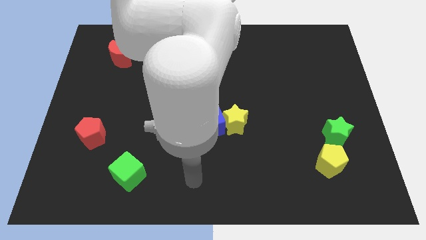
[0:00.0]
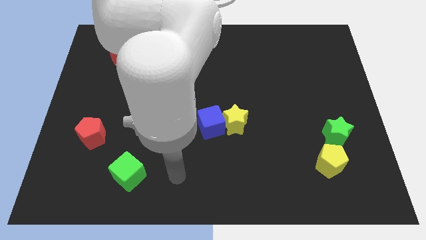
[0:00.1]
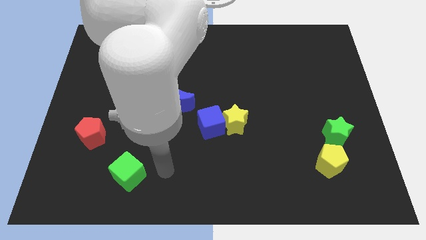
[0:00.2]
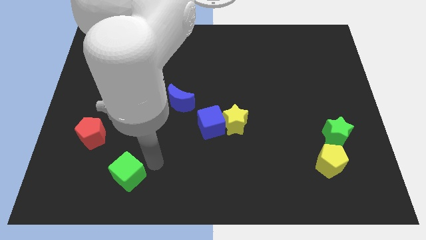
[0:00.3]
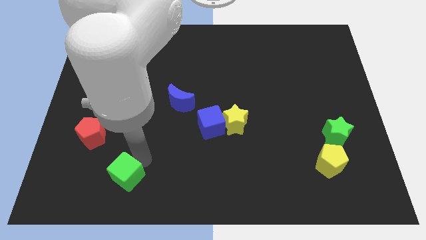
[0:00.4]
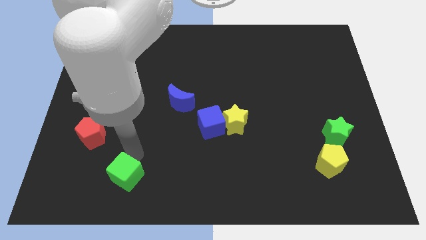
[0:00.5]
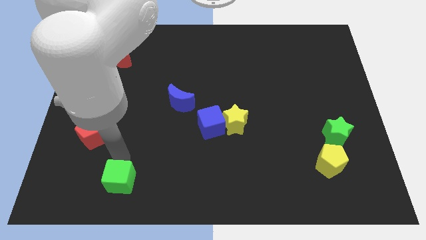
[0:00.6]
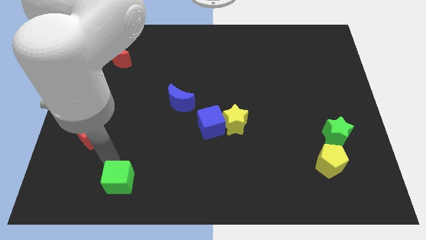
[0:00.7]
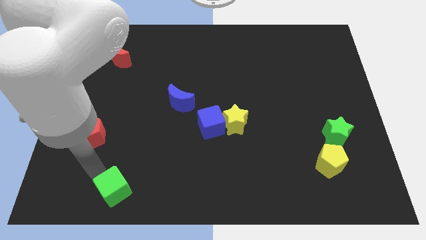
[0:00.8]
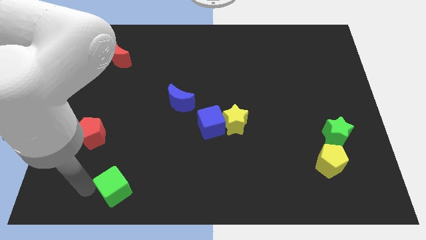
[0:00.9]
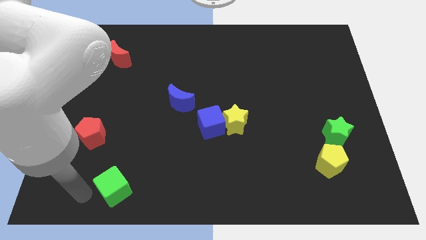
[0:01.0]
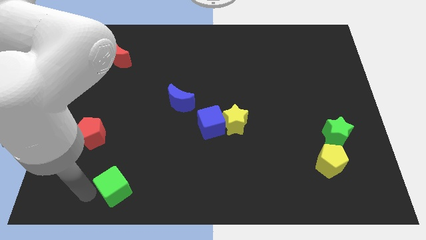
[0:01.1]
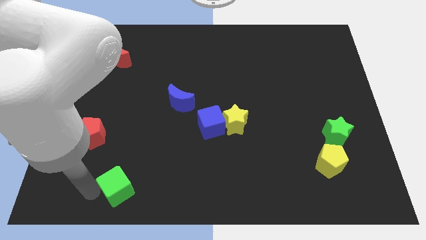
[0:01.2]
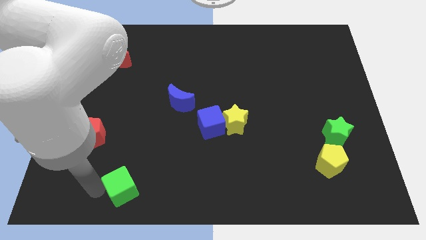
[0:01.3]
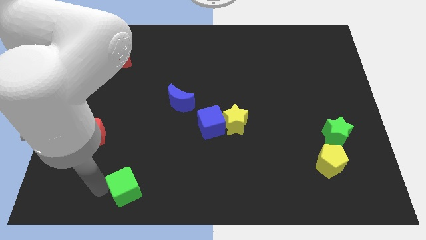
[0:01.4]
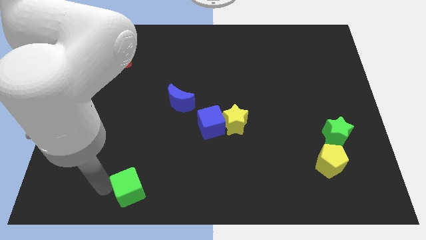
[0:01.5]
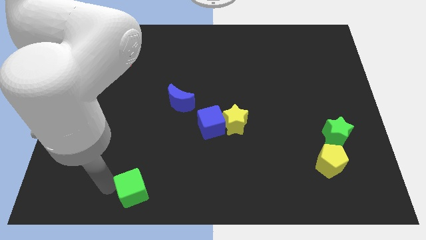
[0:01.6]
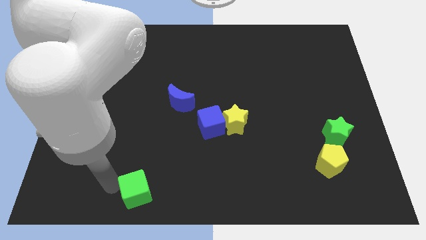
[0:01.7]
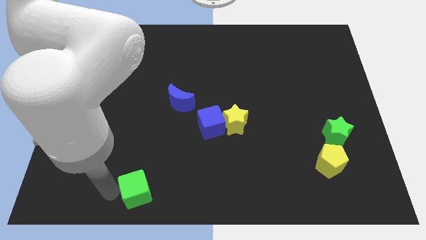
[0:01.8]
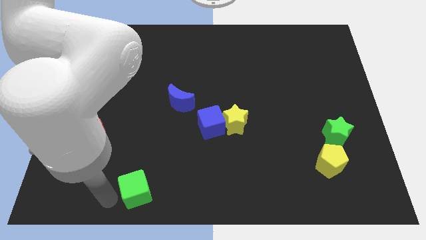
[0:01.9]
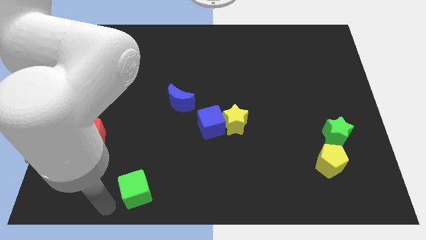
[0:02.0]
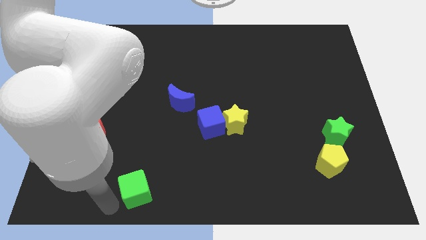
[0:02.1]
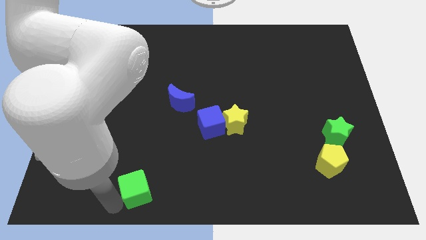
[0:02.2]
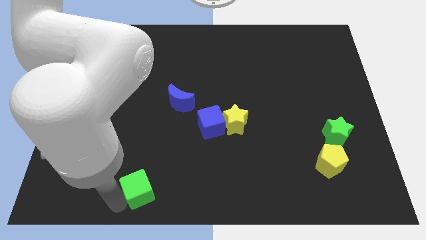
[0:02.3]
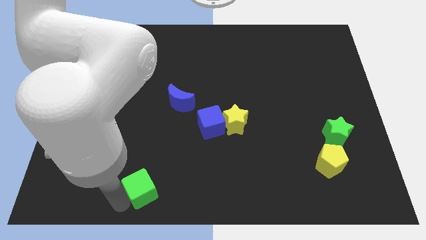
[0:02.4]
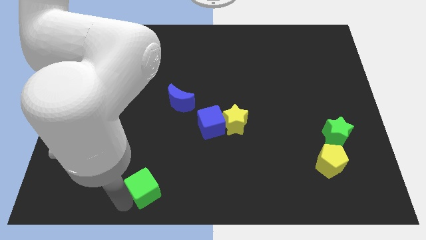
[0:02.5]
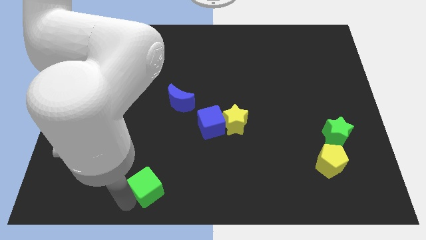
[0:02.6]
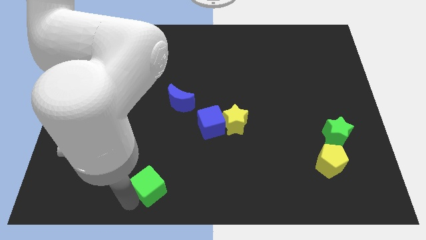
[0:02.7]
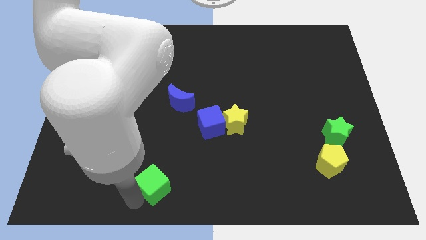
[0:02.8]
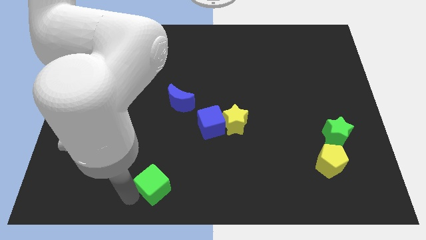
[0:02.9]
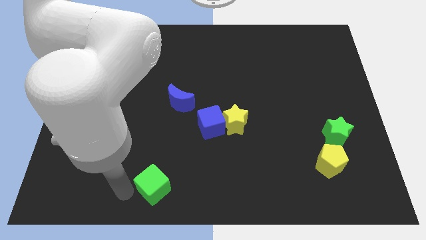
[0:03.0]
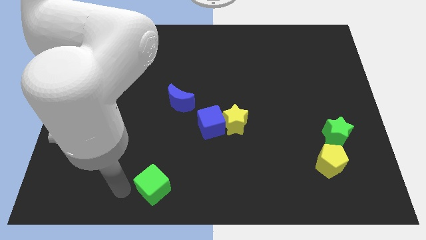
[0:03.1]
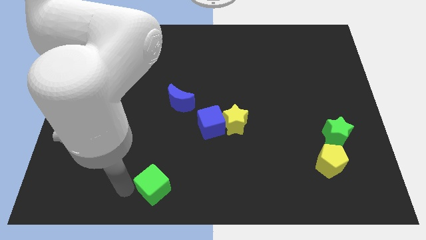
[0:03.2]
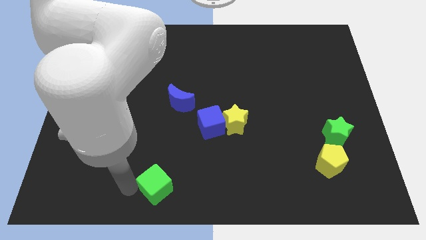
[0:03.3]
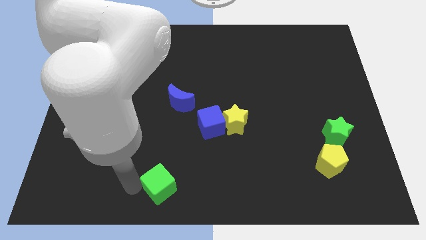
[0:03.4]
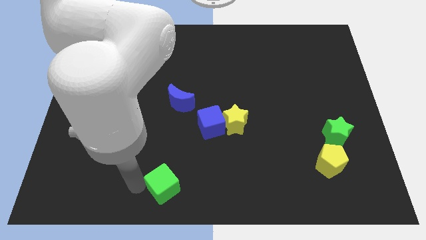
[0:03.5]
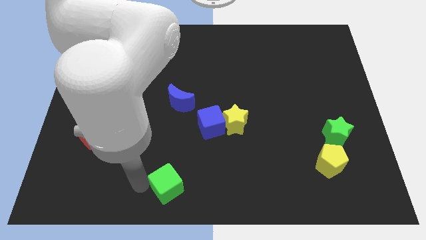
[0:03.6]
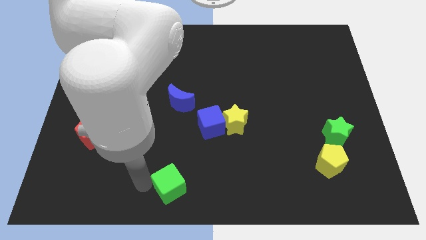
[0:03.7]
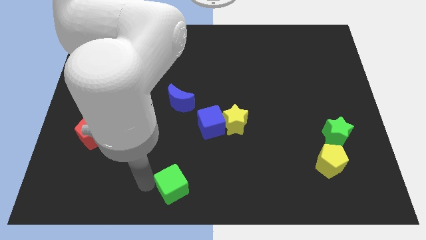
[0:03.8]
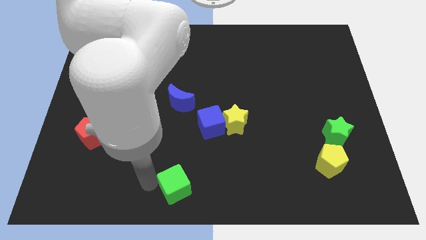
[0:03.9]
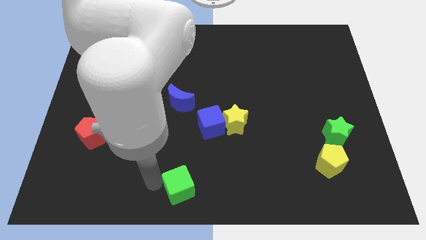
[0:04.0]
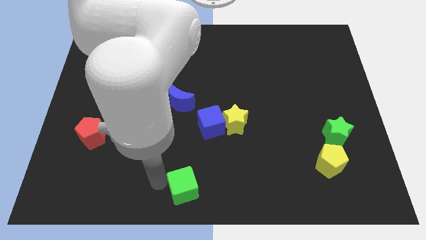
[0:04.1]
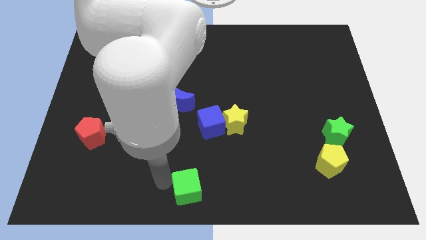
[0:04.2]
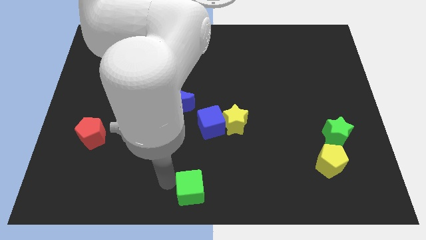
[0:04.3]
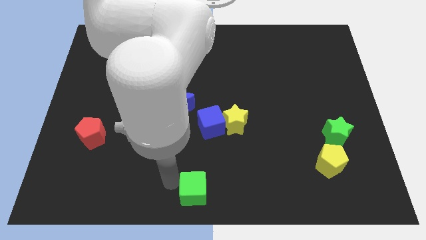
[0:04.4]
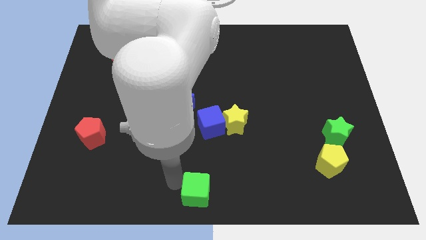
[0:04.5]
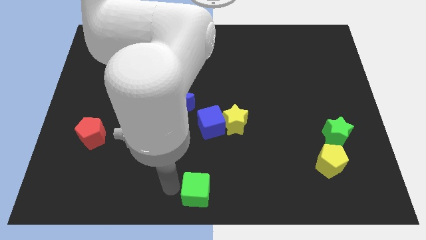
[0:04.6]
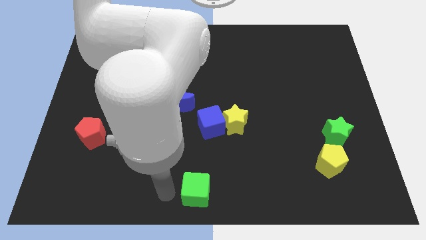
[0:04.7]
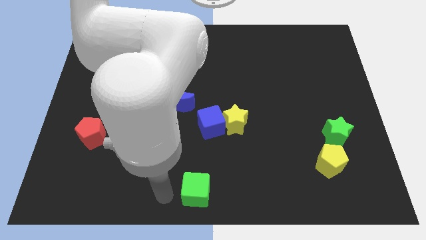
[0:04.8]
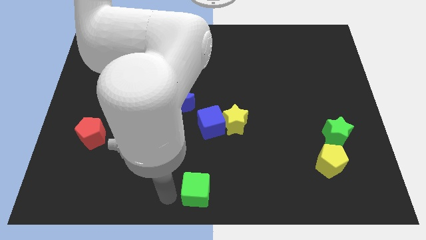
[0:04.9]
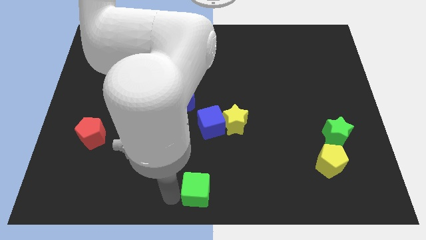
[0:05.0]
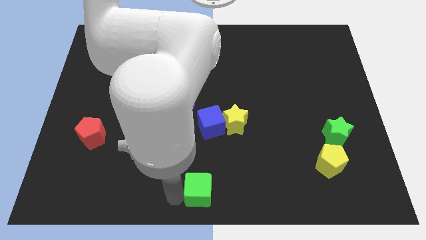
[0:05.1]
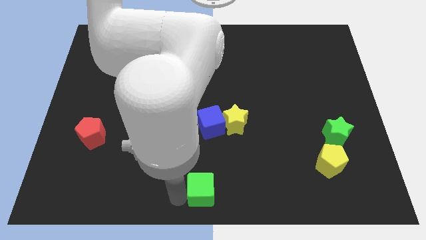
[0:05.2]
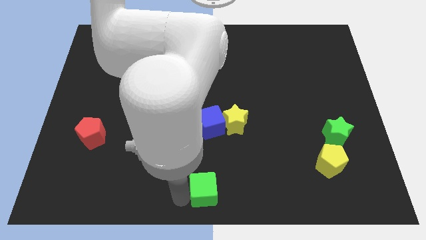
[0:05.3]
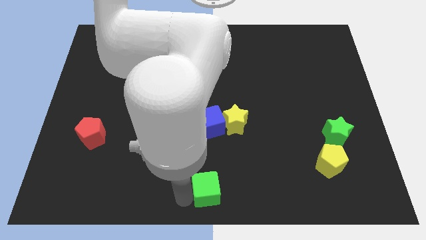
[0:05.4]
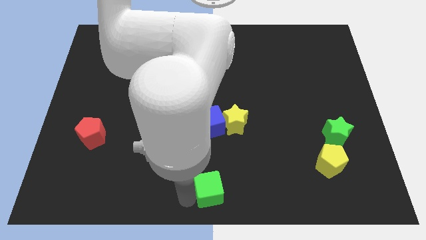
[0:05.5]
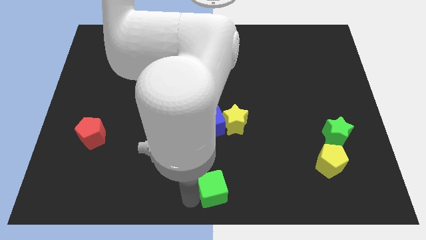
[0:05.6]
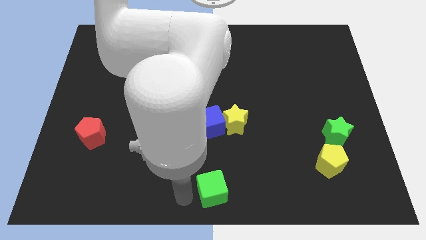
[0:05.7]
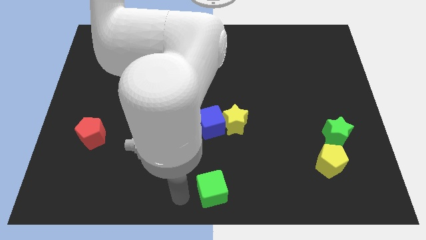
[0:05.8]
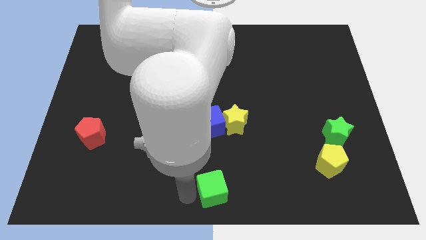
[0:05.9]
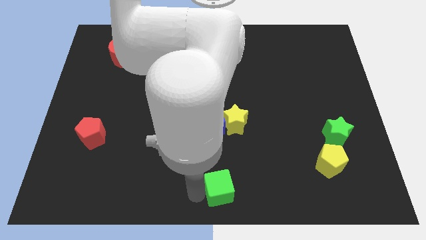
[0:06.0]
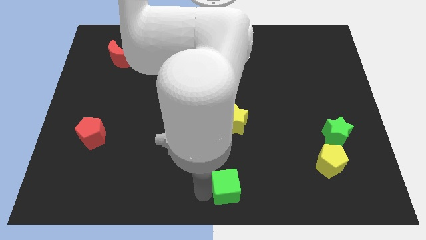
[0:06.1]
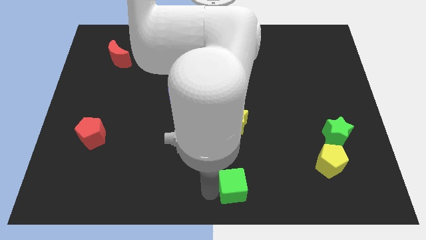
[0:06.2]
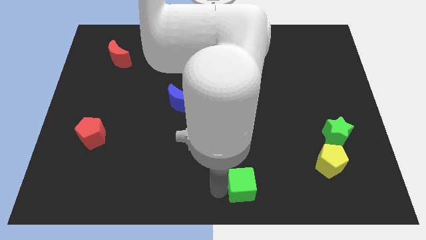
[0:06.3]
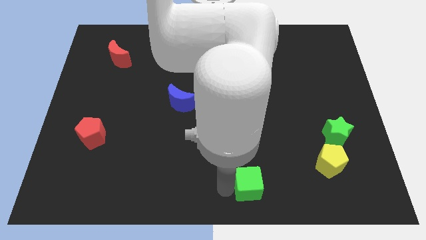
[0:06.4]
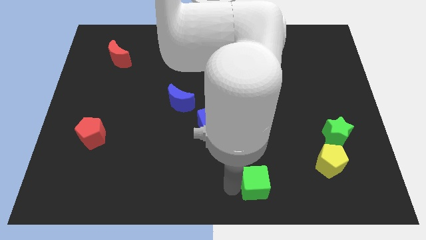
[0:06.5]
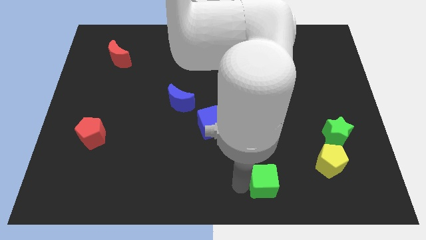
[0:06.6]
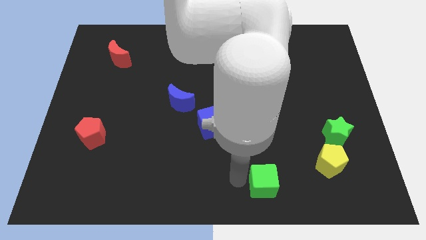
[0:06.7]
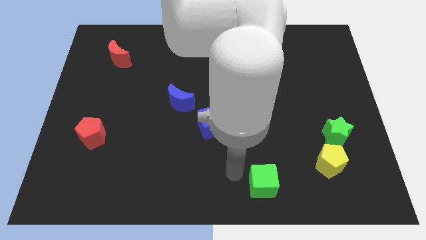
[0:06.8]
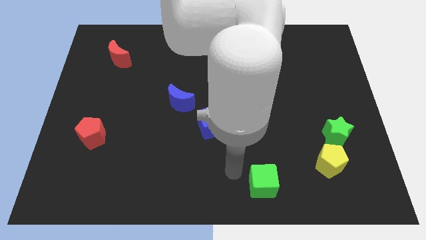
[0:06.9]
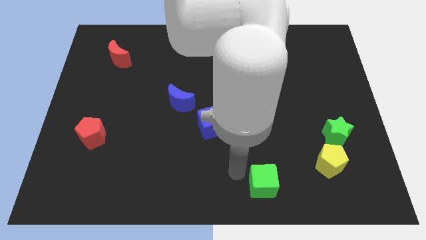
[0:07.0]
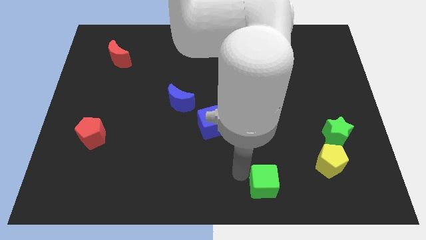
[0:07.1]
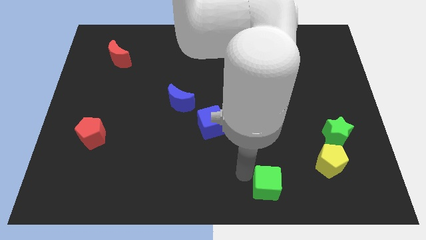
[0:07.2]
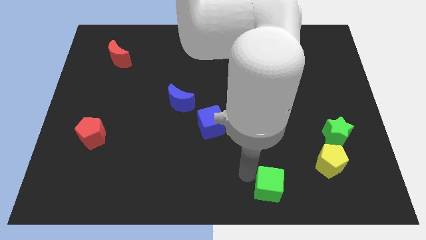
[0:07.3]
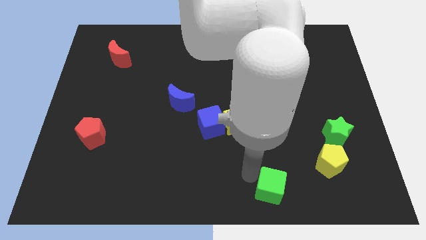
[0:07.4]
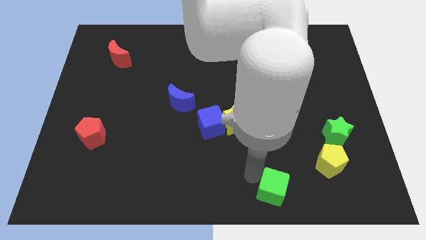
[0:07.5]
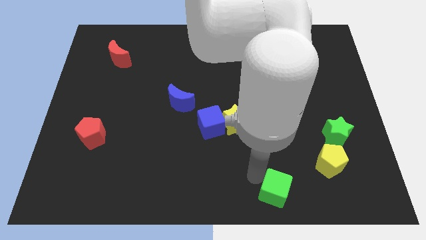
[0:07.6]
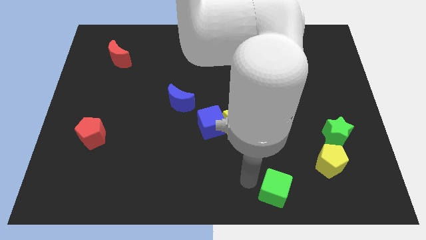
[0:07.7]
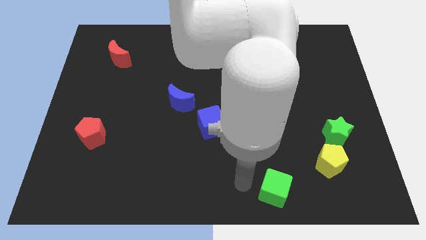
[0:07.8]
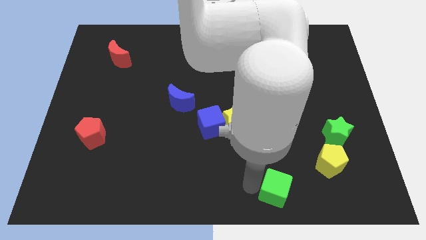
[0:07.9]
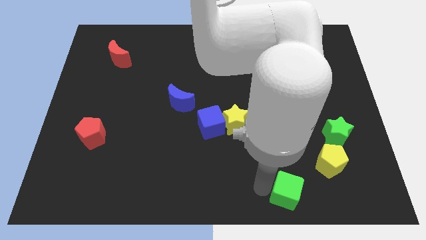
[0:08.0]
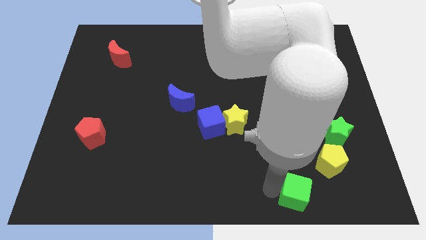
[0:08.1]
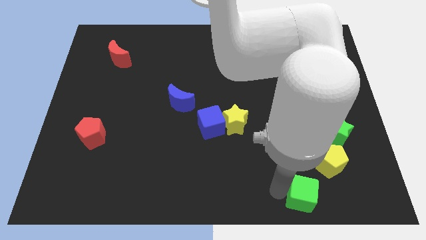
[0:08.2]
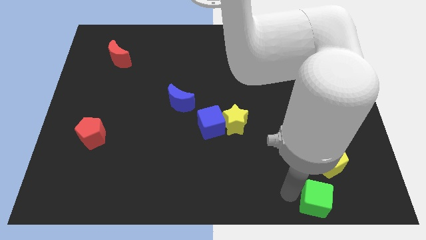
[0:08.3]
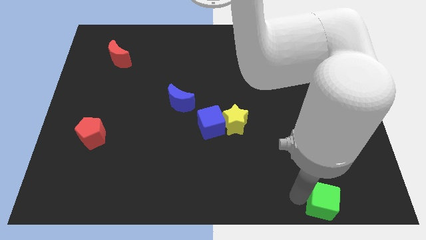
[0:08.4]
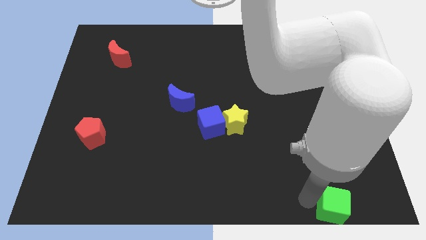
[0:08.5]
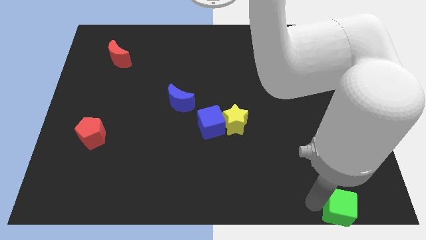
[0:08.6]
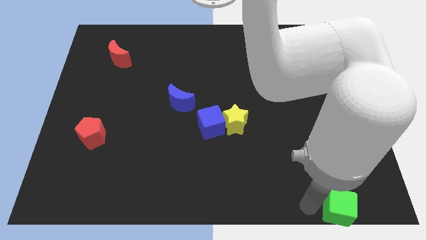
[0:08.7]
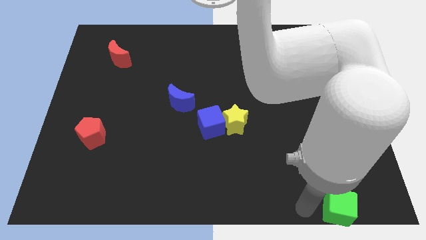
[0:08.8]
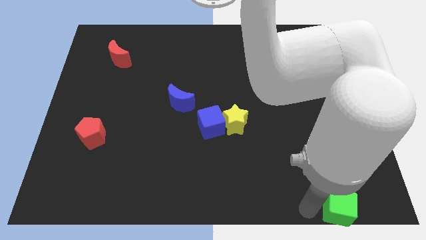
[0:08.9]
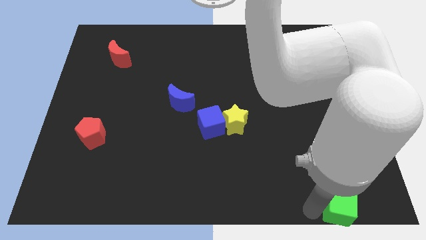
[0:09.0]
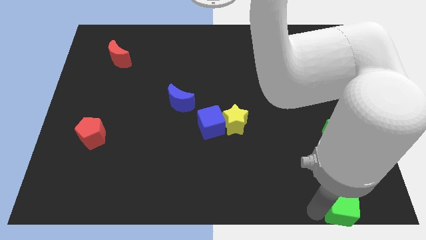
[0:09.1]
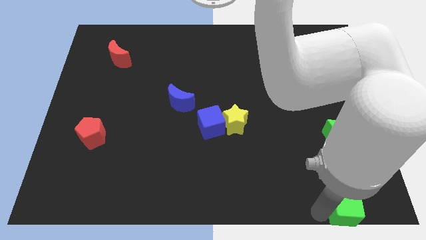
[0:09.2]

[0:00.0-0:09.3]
slide the green cube to the bottom right
